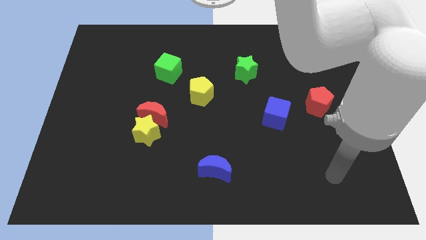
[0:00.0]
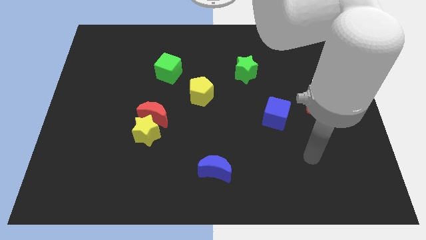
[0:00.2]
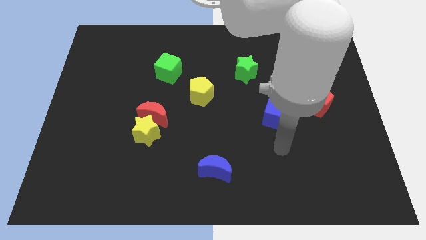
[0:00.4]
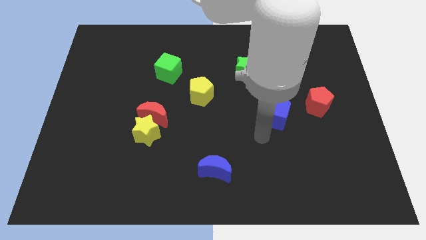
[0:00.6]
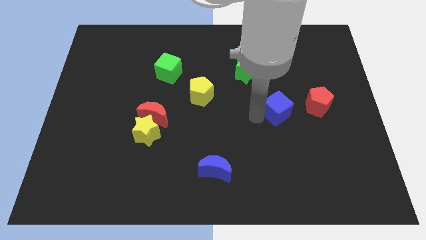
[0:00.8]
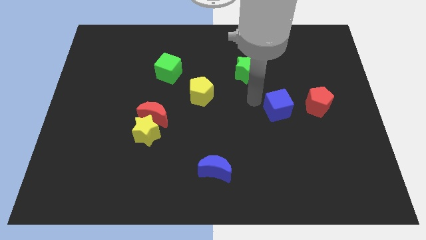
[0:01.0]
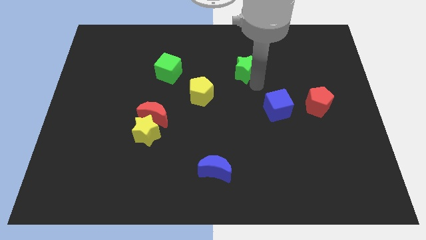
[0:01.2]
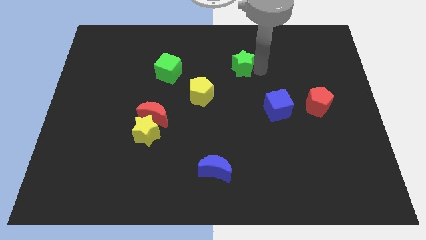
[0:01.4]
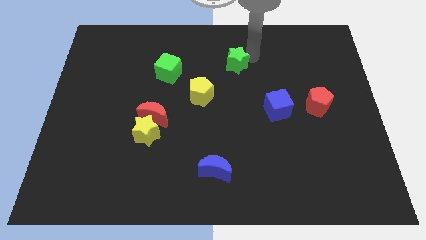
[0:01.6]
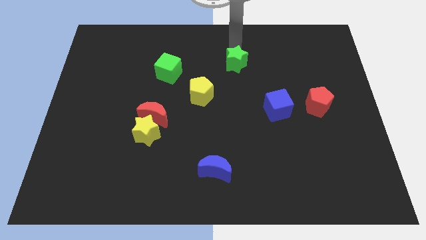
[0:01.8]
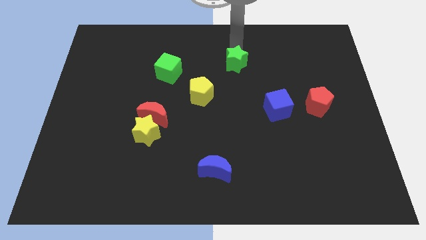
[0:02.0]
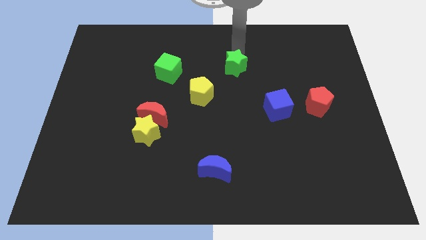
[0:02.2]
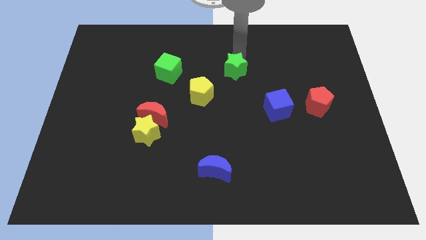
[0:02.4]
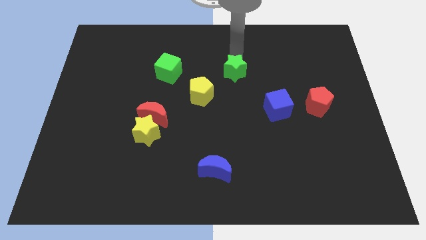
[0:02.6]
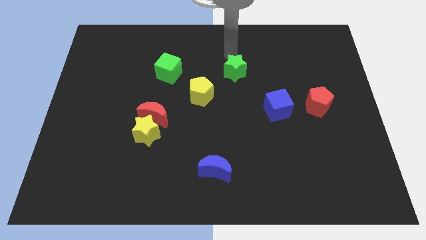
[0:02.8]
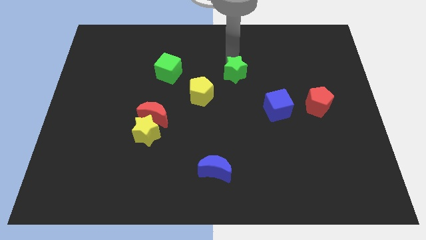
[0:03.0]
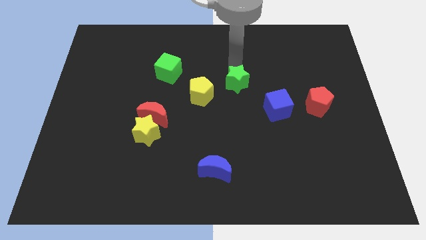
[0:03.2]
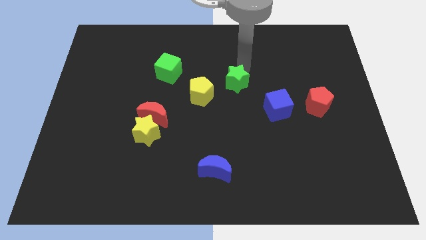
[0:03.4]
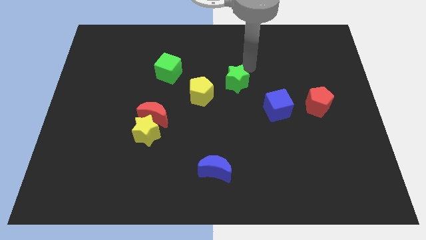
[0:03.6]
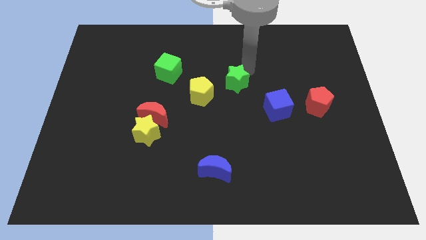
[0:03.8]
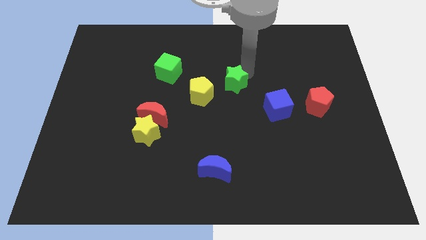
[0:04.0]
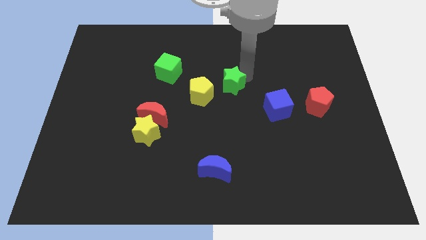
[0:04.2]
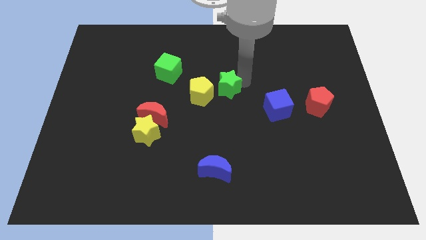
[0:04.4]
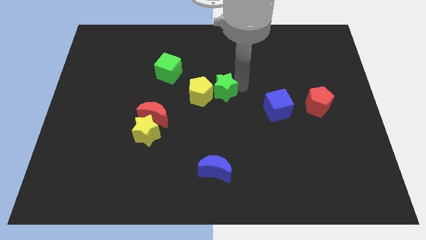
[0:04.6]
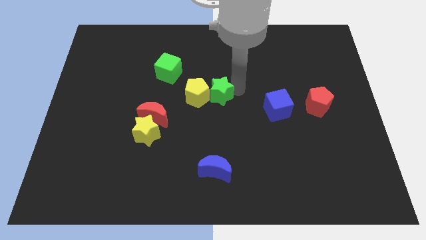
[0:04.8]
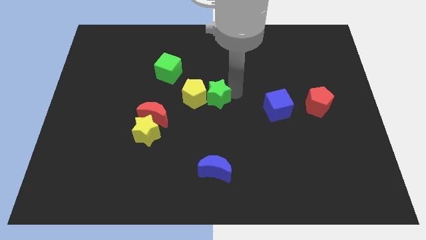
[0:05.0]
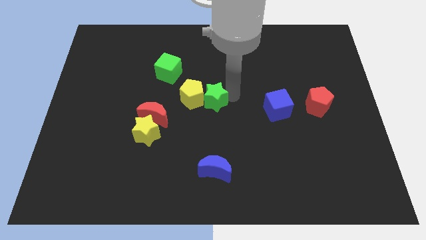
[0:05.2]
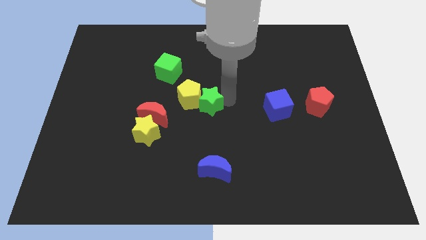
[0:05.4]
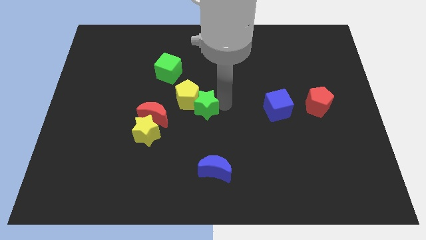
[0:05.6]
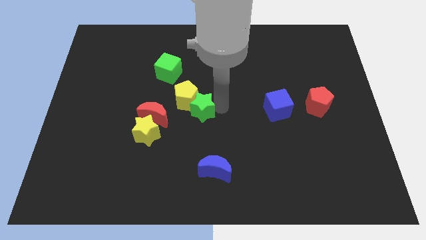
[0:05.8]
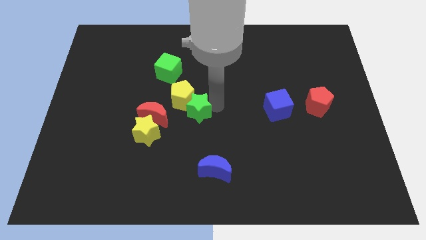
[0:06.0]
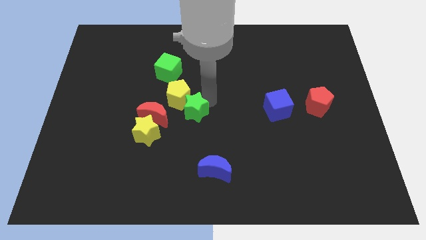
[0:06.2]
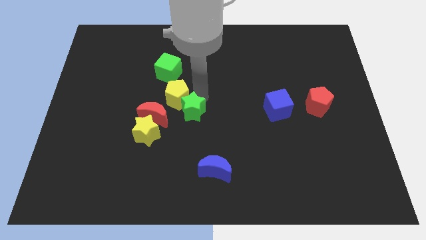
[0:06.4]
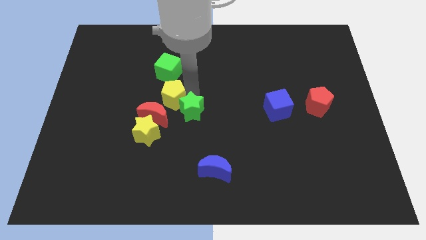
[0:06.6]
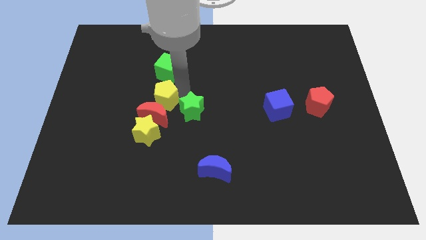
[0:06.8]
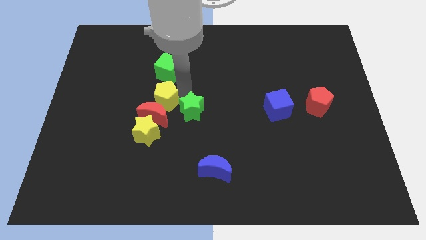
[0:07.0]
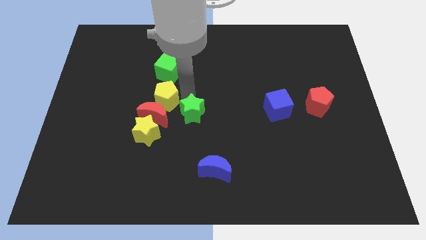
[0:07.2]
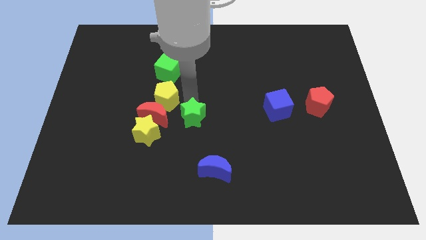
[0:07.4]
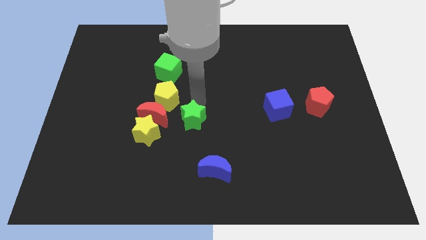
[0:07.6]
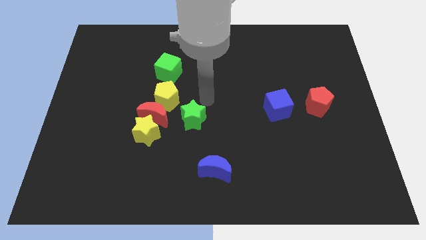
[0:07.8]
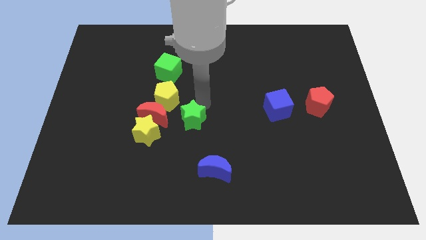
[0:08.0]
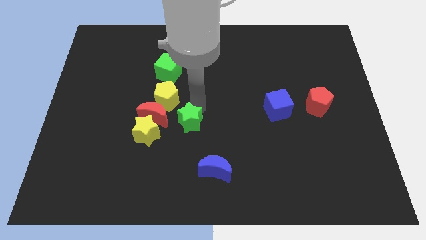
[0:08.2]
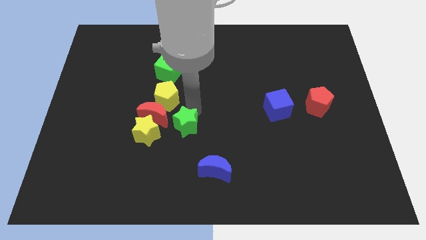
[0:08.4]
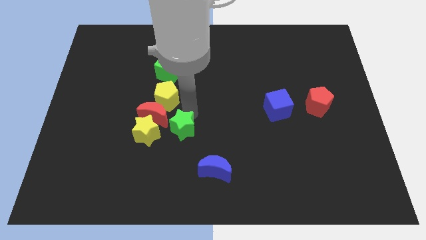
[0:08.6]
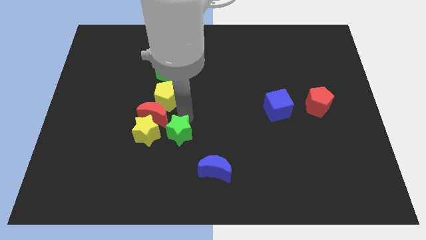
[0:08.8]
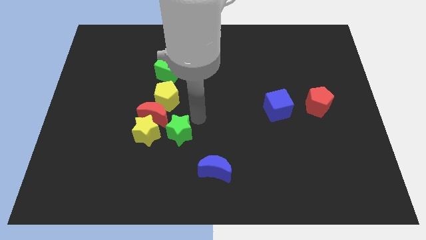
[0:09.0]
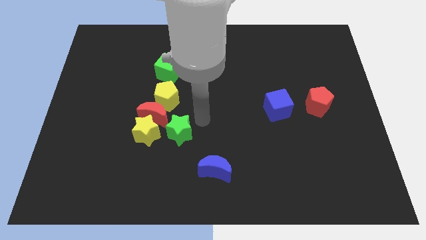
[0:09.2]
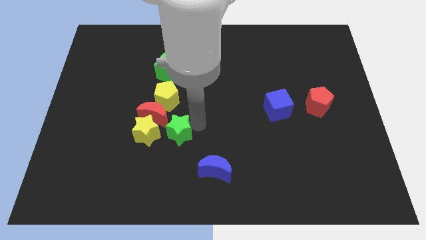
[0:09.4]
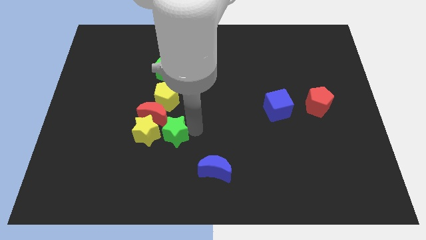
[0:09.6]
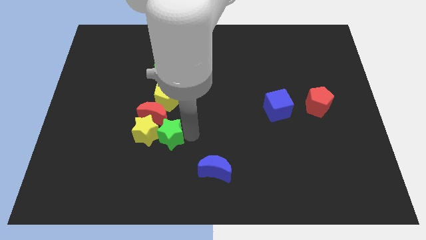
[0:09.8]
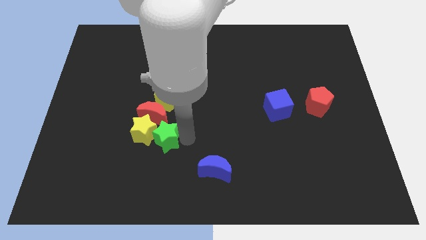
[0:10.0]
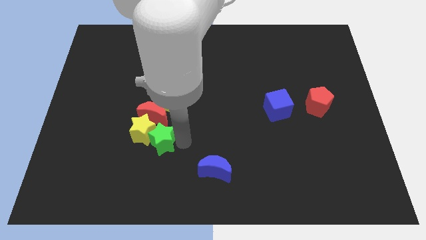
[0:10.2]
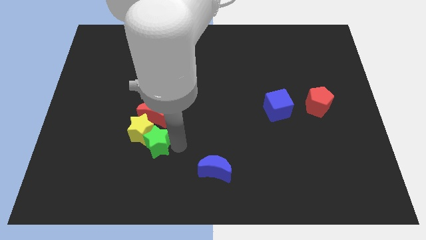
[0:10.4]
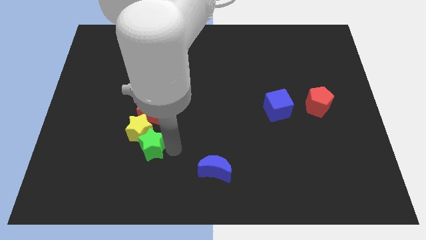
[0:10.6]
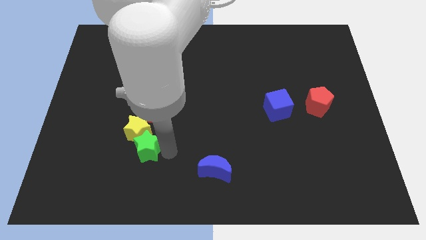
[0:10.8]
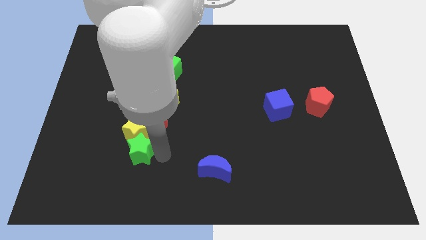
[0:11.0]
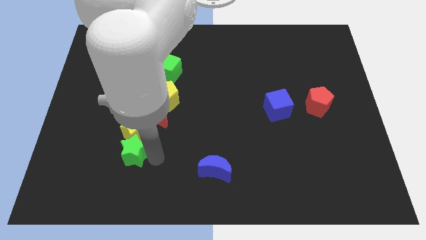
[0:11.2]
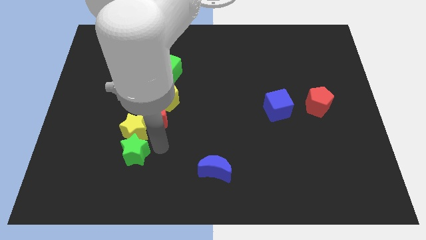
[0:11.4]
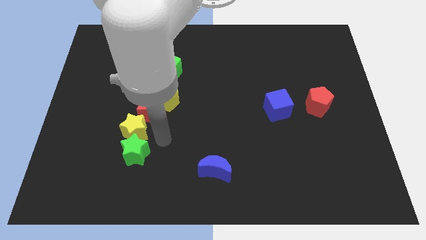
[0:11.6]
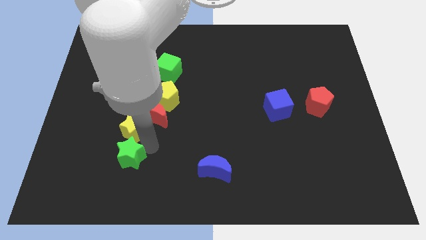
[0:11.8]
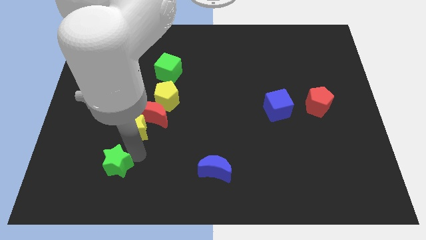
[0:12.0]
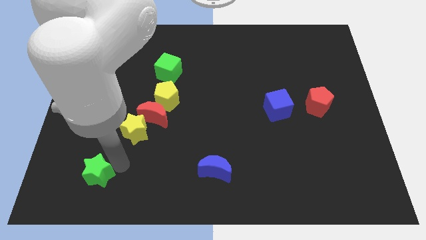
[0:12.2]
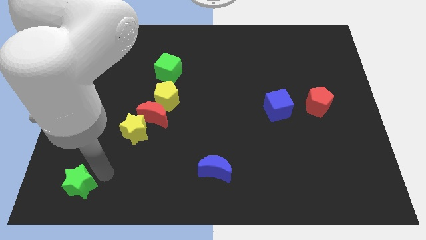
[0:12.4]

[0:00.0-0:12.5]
move the green star to the lower left corner
